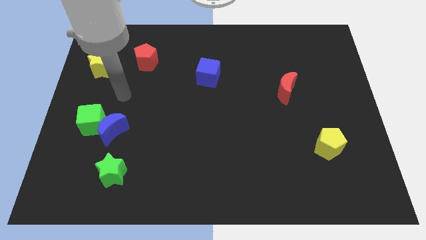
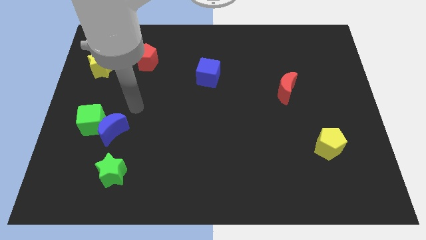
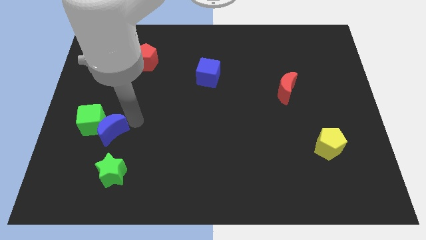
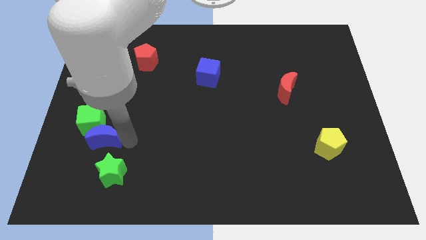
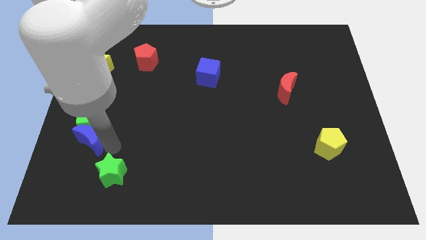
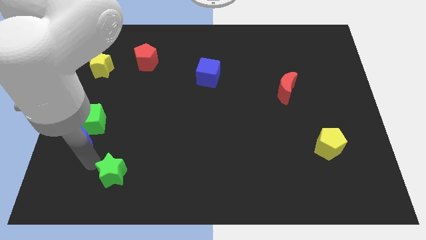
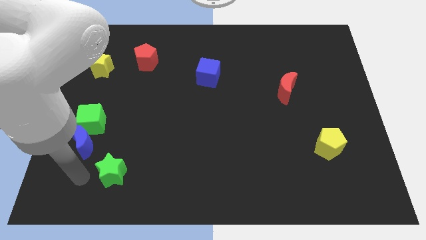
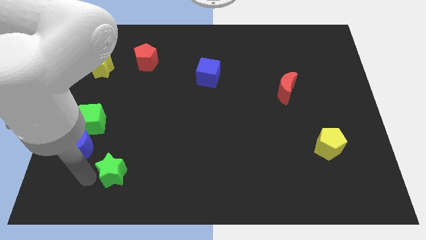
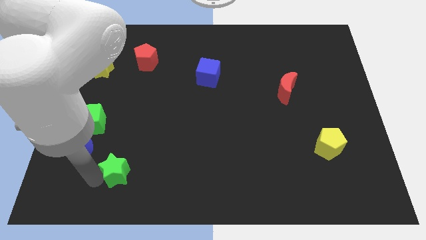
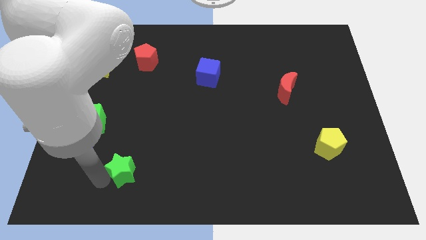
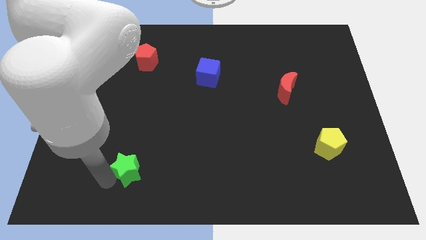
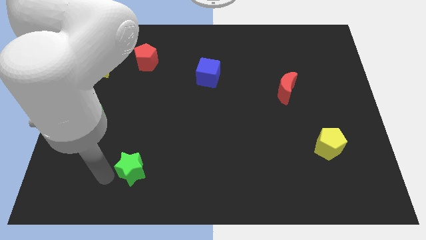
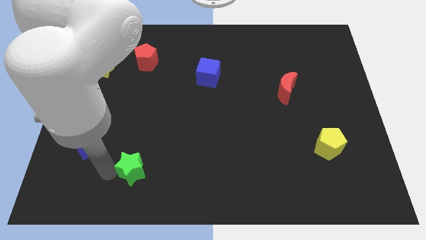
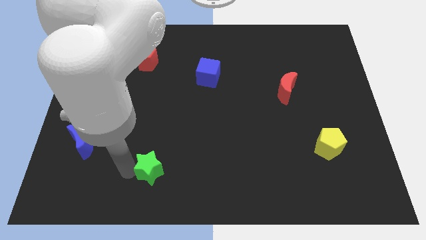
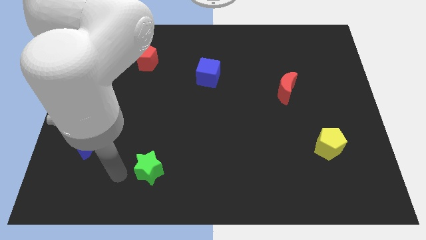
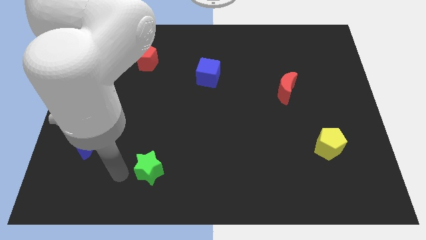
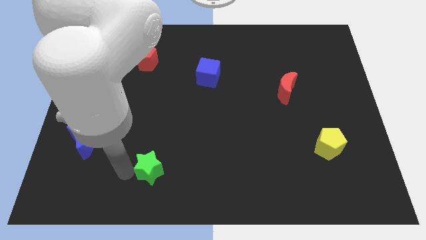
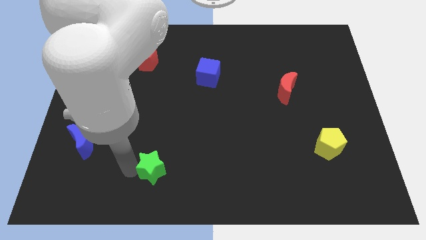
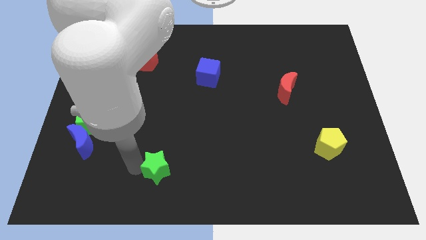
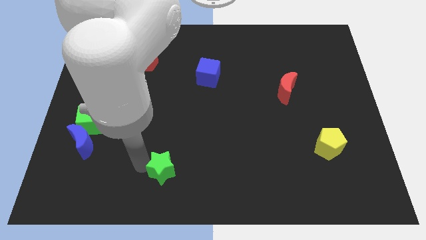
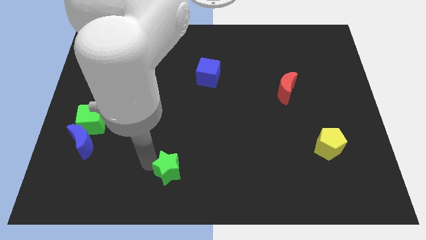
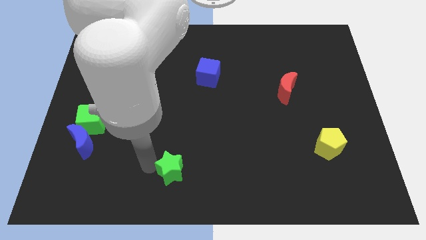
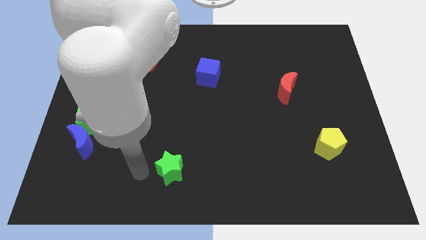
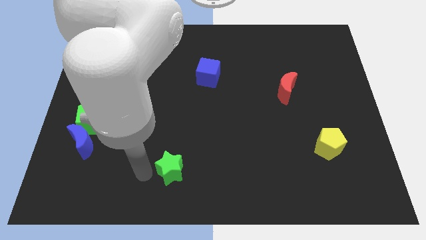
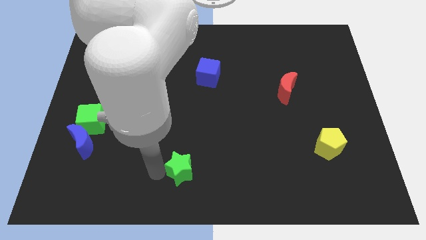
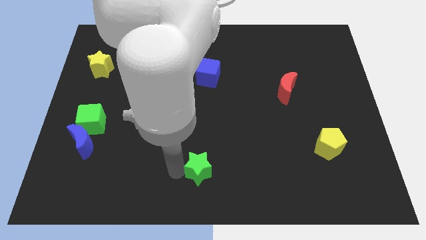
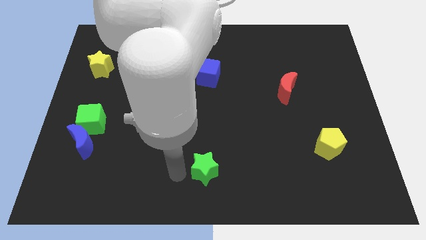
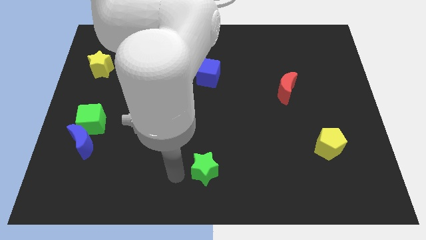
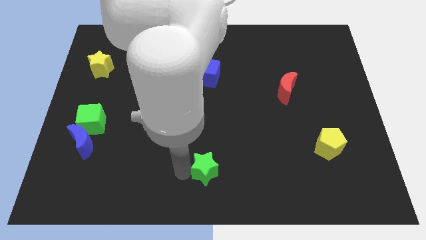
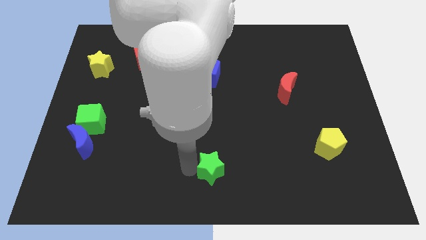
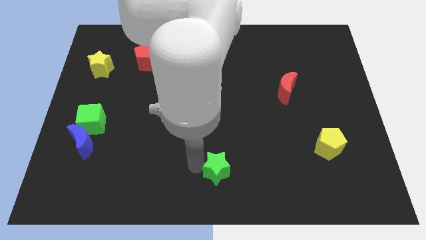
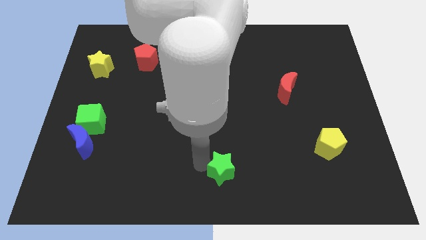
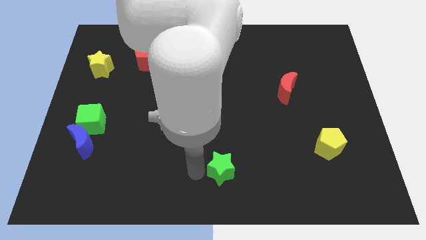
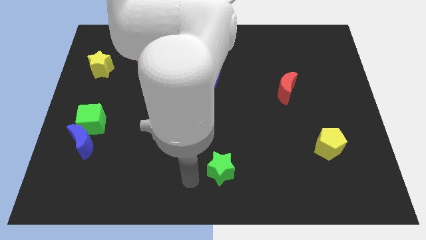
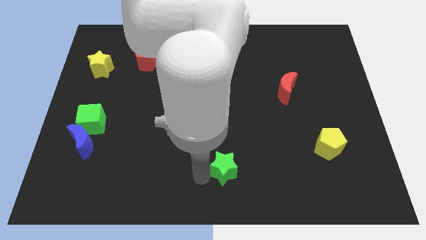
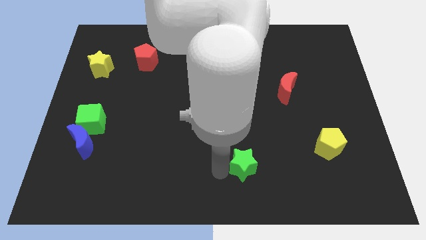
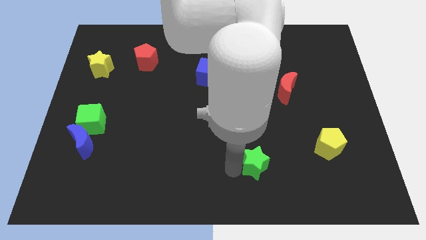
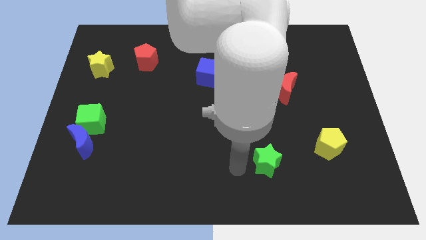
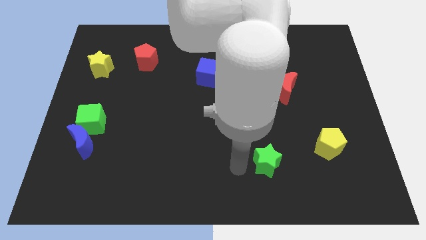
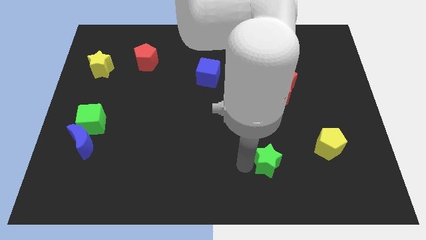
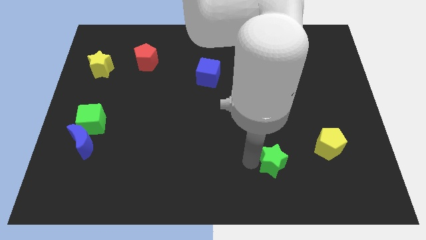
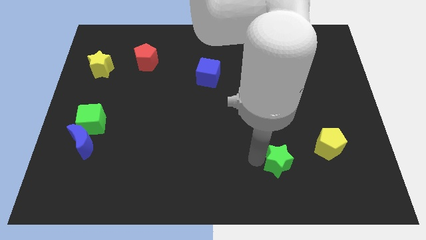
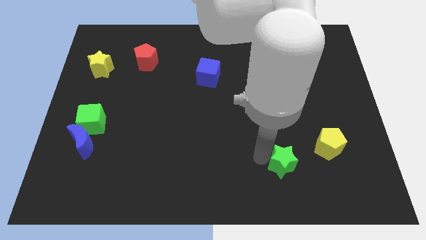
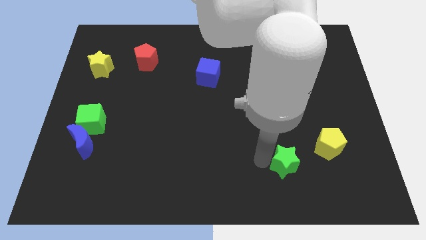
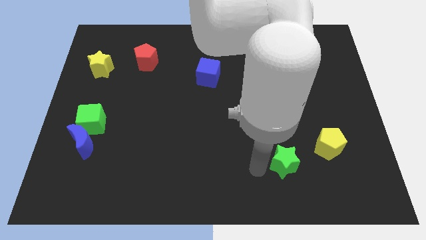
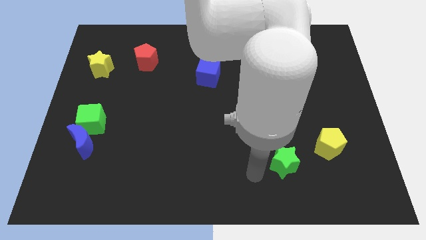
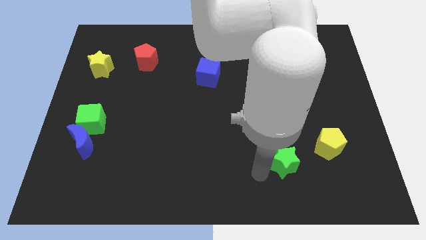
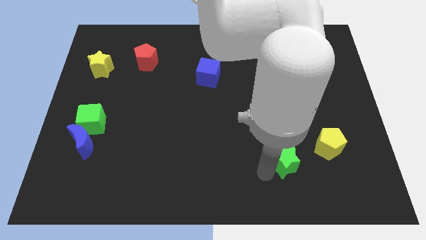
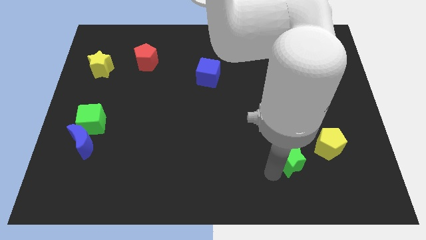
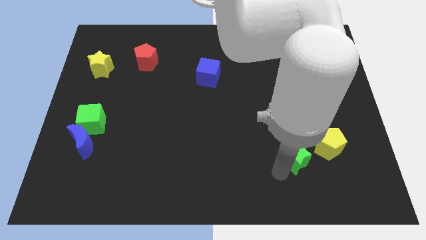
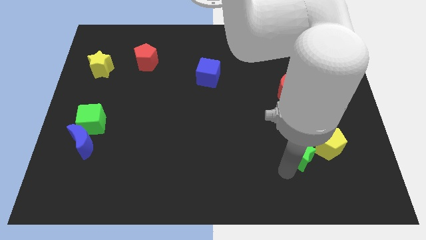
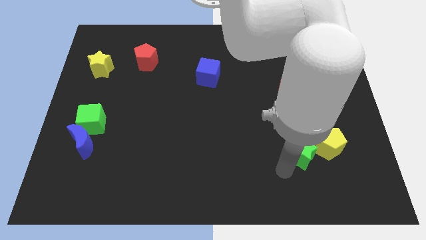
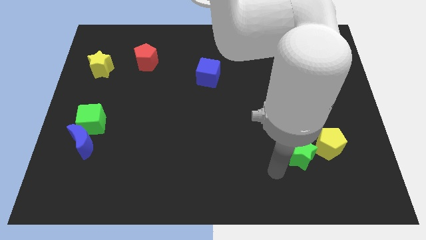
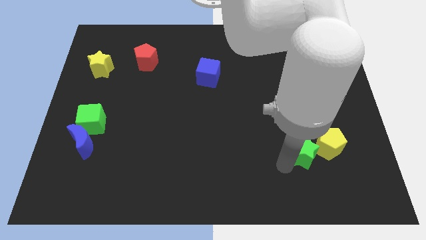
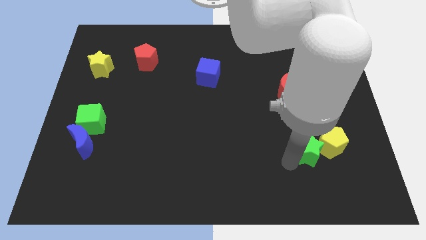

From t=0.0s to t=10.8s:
slide the green star next to the yellow pentagon

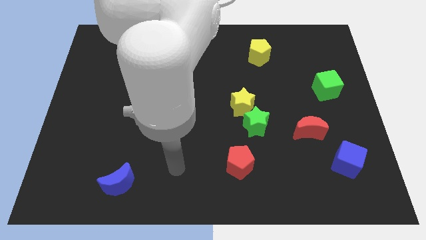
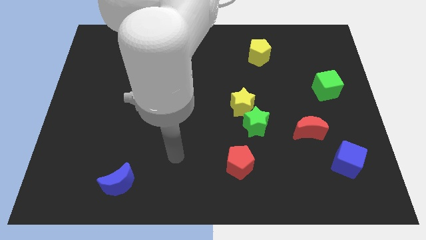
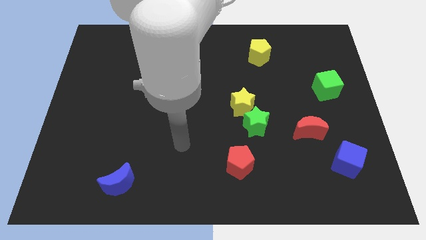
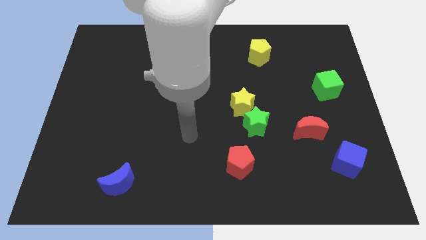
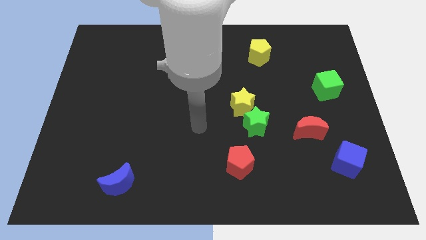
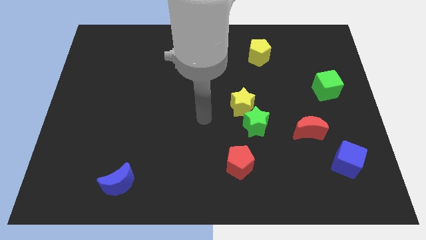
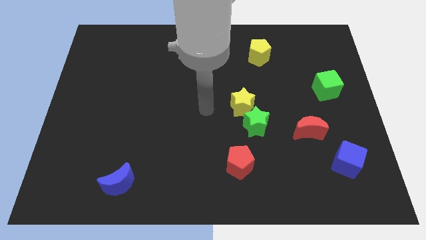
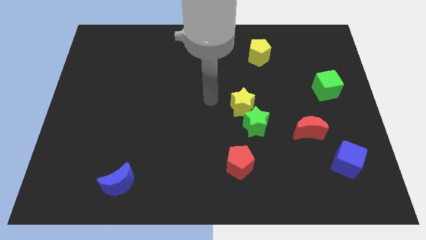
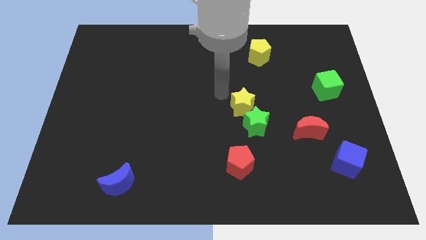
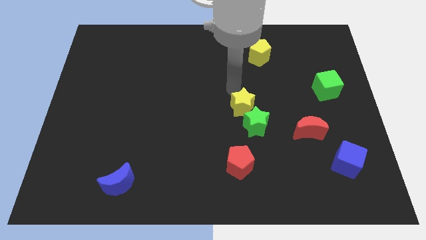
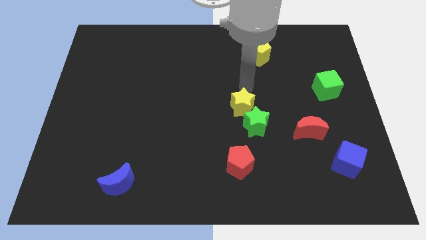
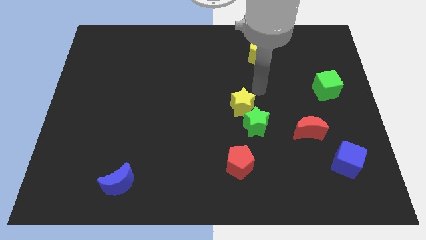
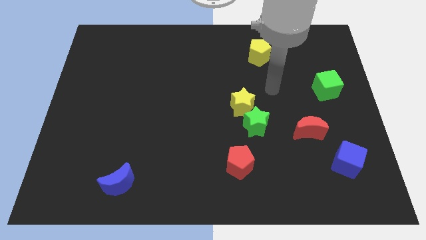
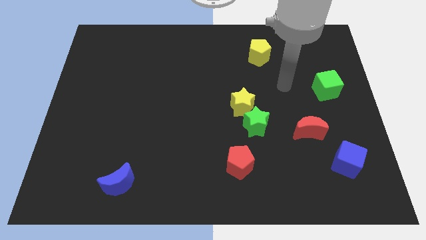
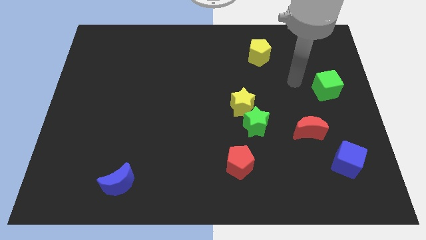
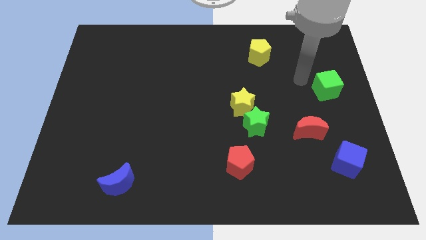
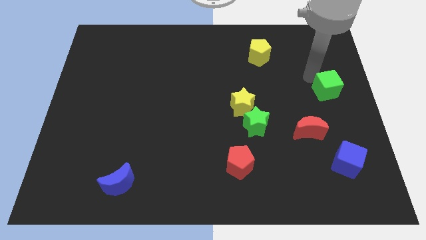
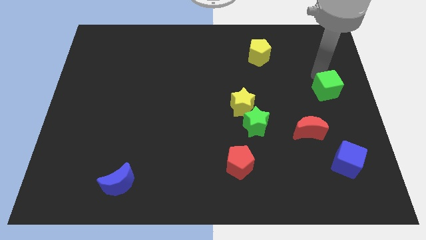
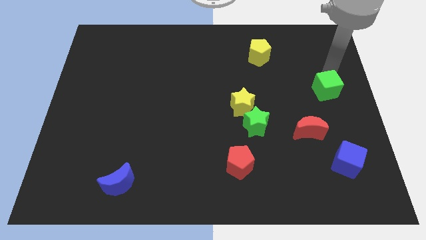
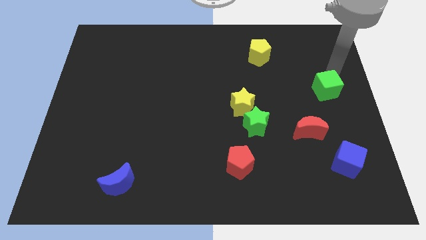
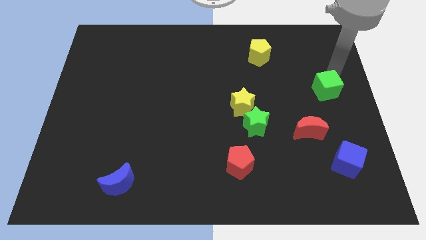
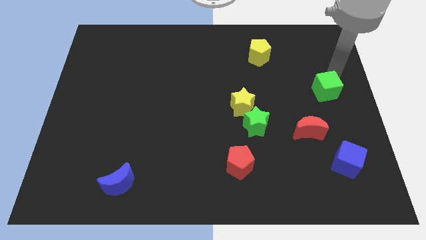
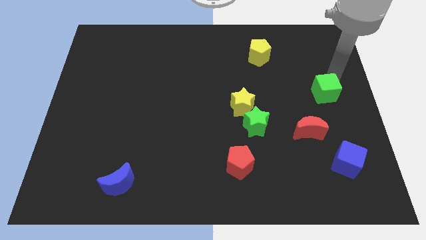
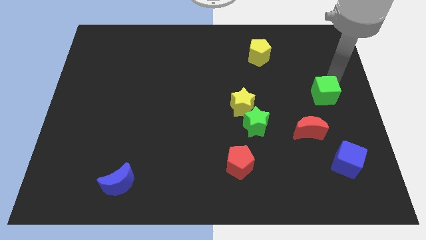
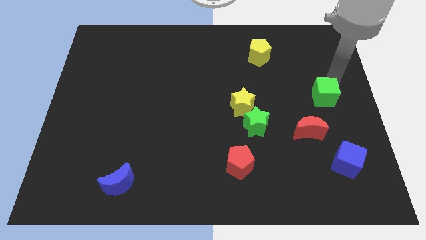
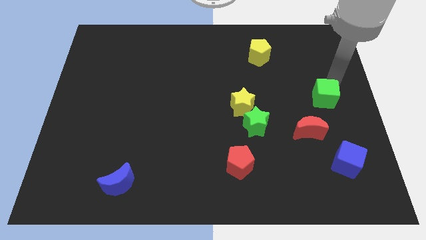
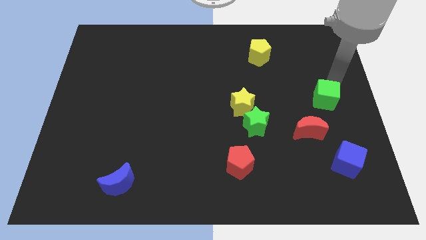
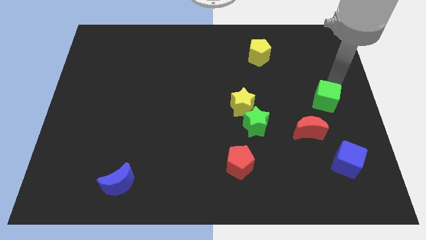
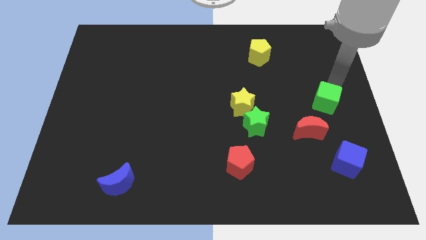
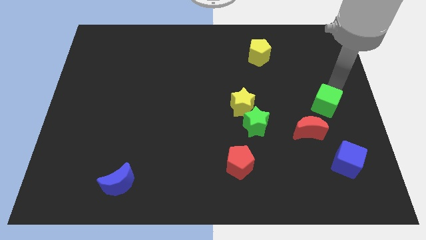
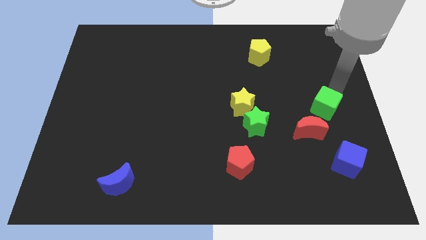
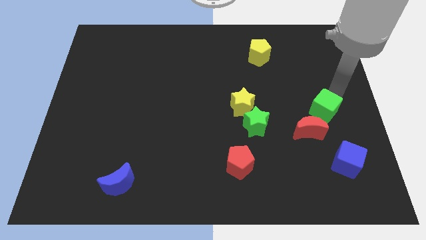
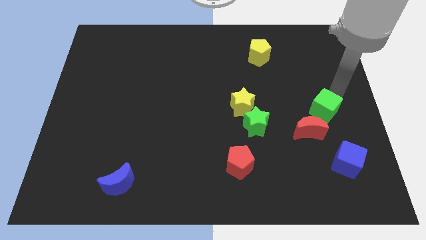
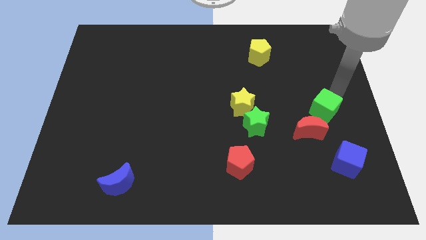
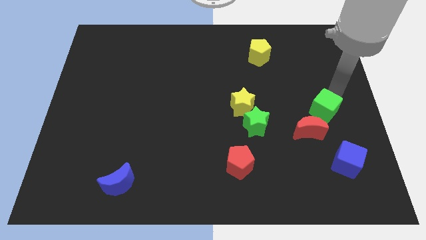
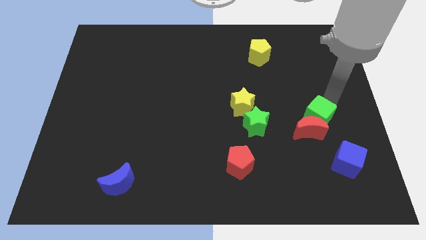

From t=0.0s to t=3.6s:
move the green cube to the red moon
